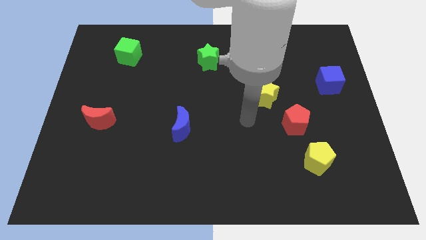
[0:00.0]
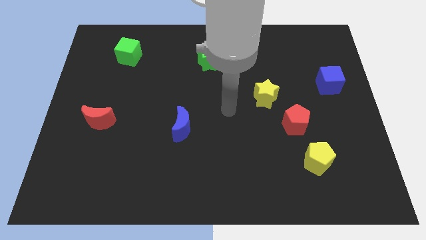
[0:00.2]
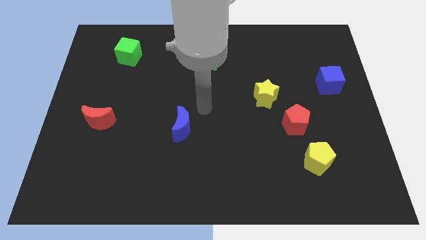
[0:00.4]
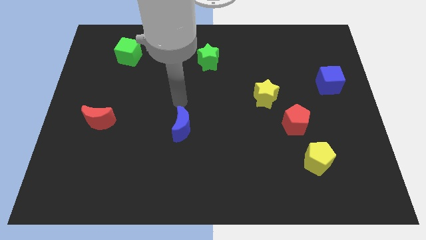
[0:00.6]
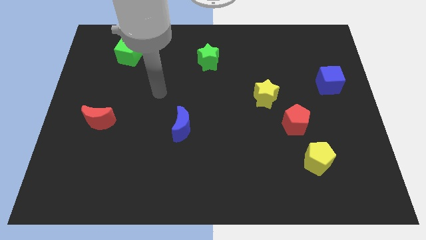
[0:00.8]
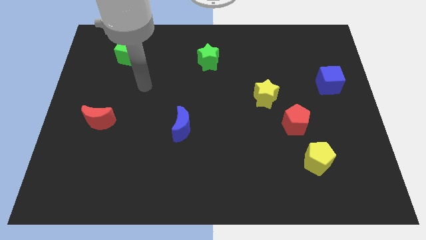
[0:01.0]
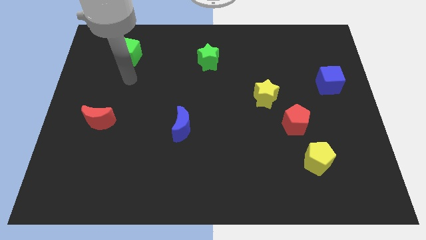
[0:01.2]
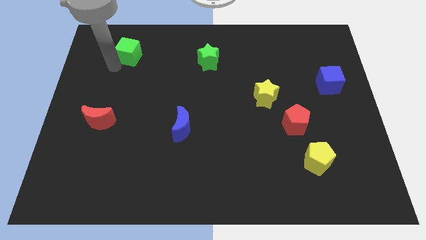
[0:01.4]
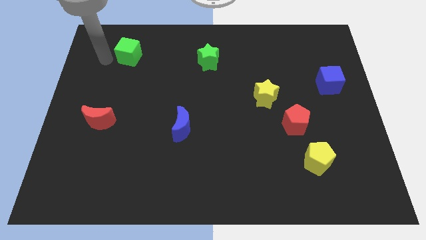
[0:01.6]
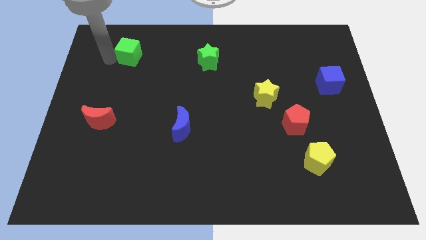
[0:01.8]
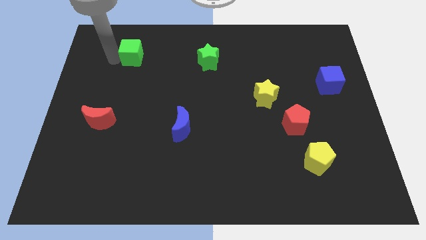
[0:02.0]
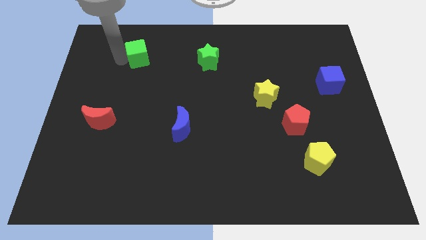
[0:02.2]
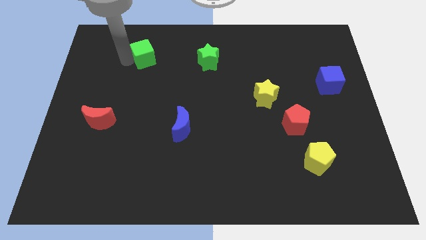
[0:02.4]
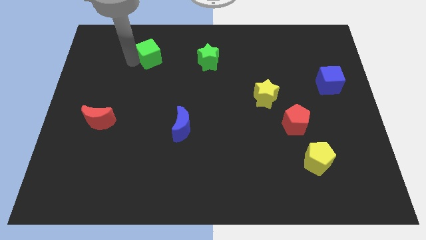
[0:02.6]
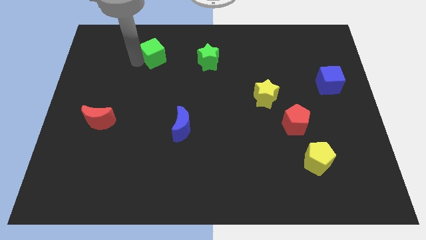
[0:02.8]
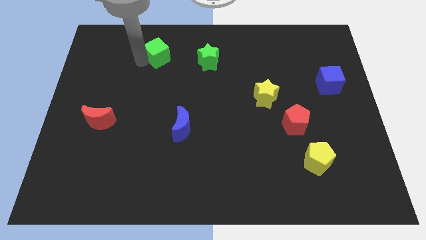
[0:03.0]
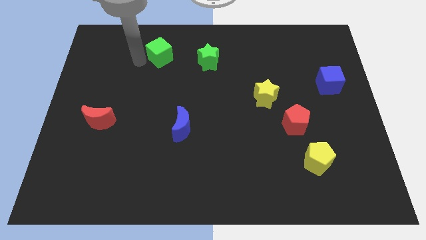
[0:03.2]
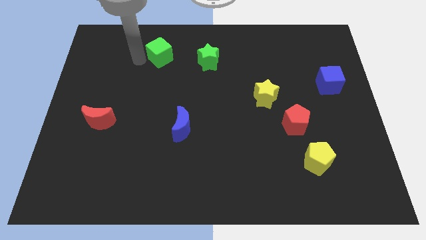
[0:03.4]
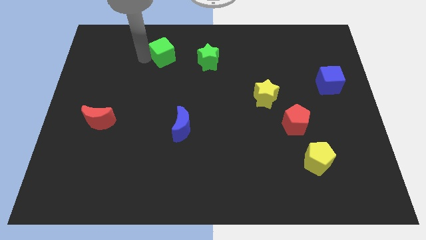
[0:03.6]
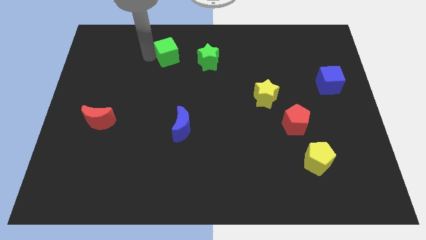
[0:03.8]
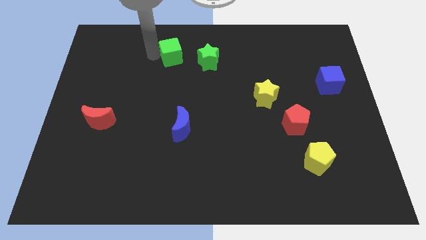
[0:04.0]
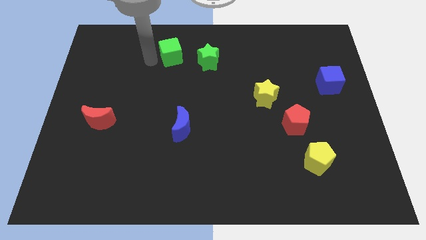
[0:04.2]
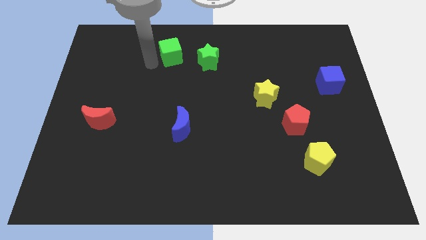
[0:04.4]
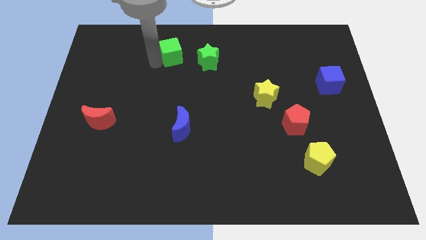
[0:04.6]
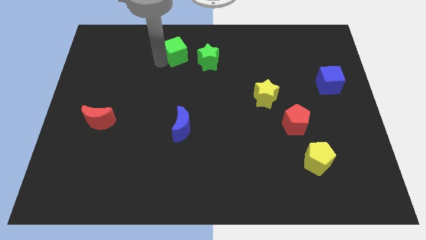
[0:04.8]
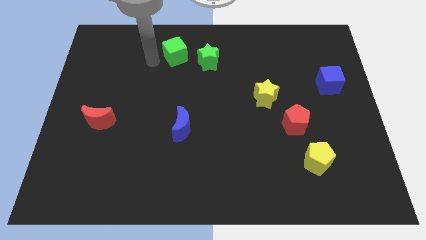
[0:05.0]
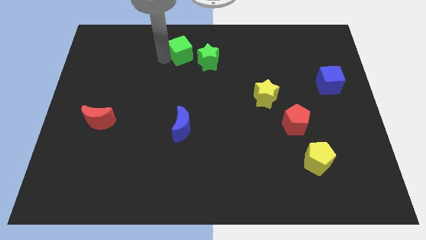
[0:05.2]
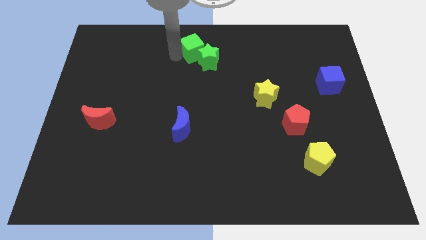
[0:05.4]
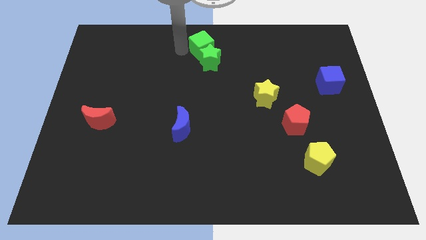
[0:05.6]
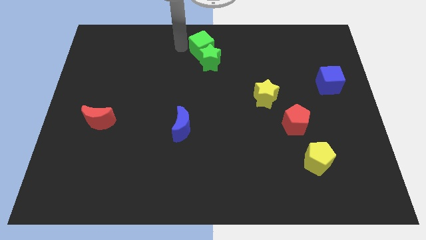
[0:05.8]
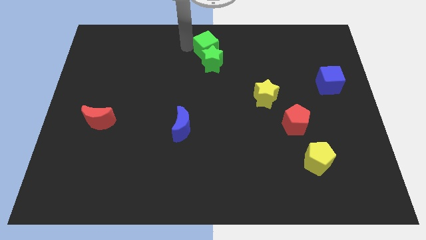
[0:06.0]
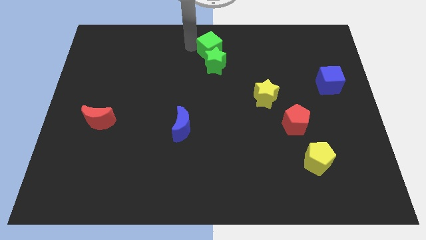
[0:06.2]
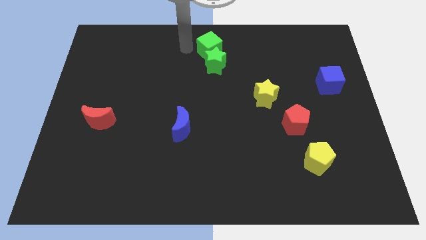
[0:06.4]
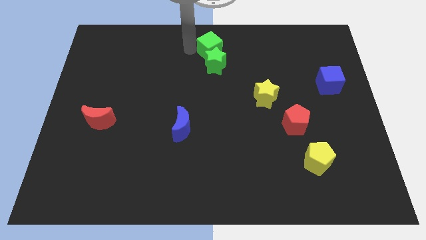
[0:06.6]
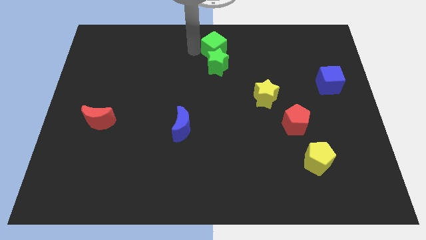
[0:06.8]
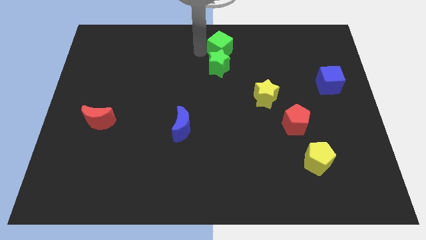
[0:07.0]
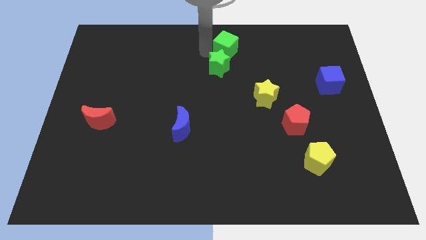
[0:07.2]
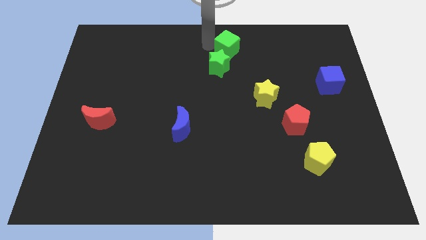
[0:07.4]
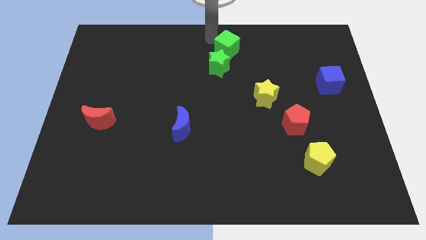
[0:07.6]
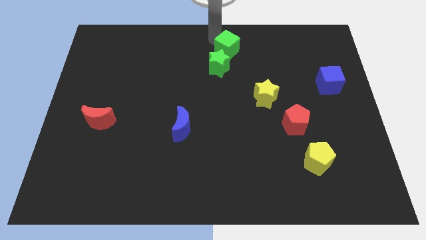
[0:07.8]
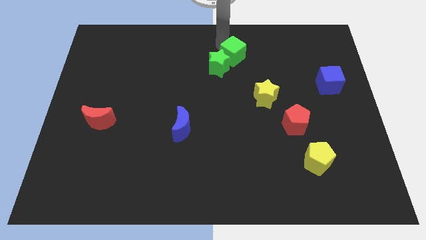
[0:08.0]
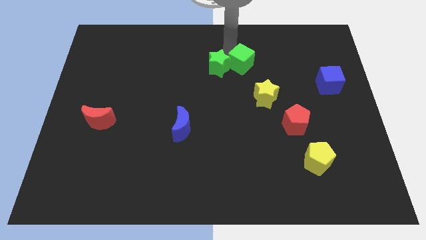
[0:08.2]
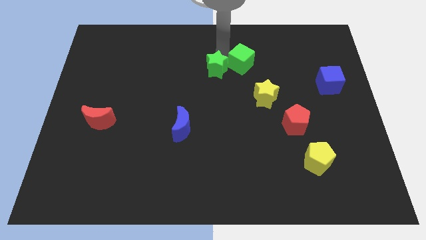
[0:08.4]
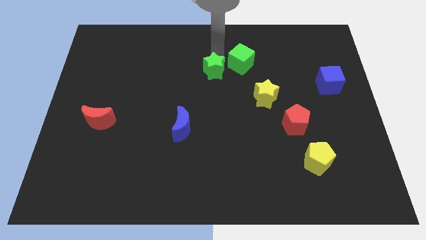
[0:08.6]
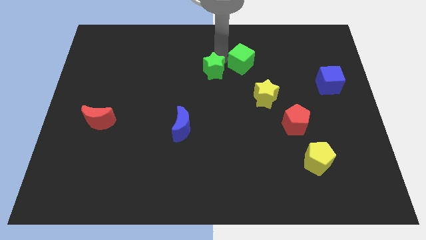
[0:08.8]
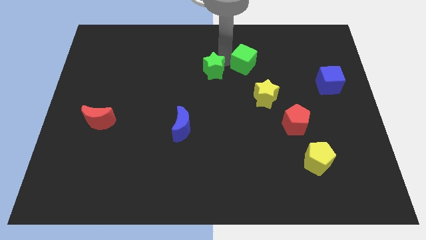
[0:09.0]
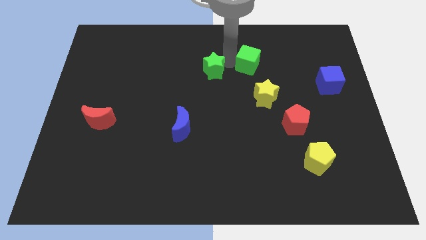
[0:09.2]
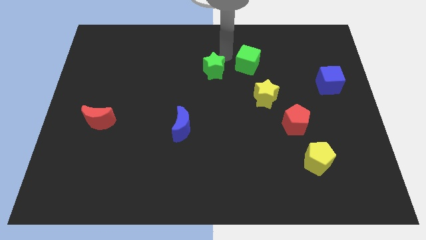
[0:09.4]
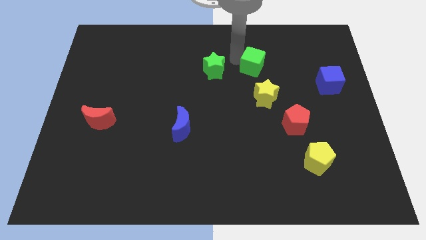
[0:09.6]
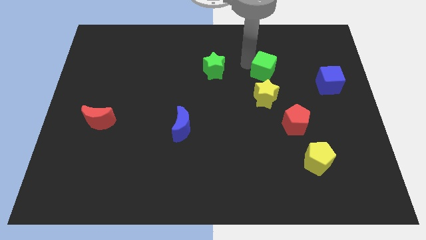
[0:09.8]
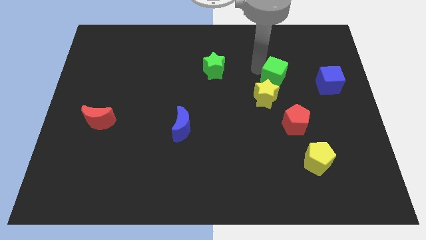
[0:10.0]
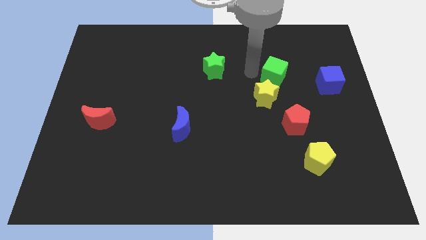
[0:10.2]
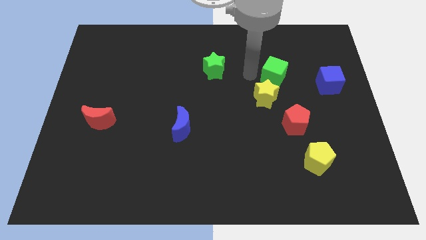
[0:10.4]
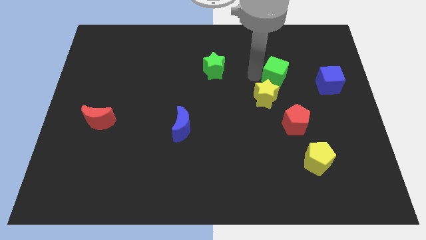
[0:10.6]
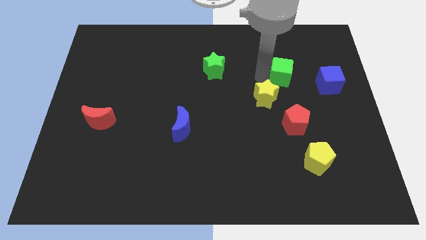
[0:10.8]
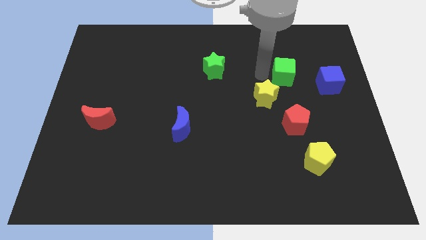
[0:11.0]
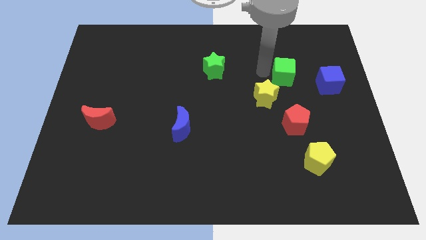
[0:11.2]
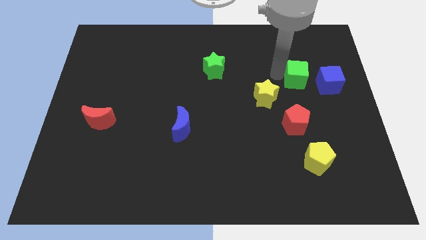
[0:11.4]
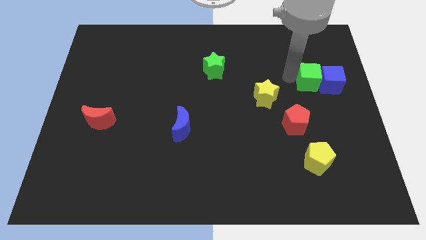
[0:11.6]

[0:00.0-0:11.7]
move the green cube next to the blue cube

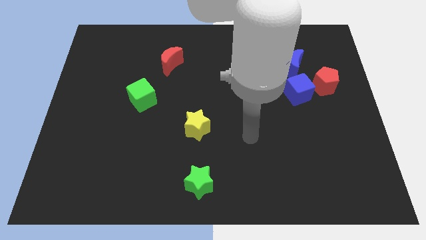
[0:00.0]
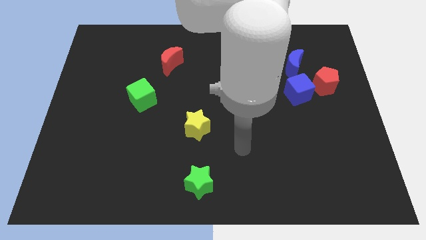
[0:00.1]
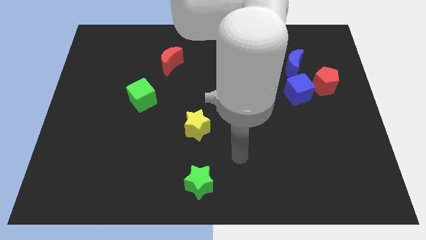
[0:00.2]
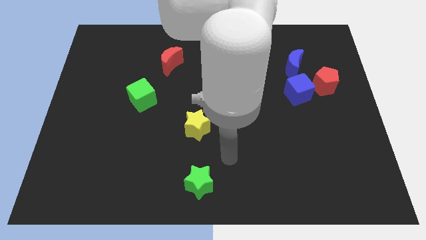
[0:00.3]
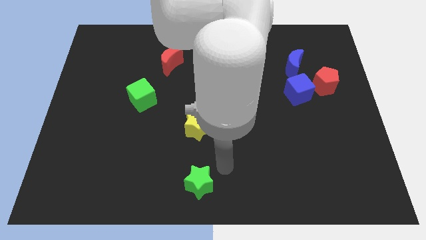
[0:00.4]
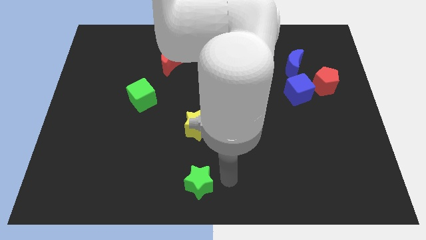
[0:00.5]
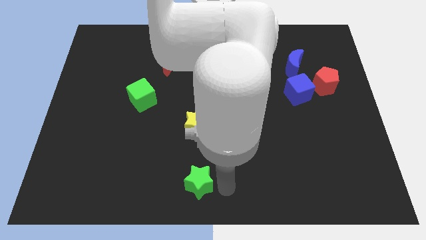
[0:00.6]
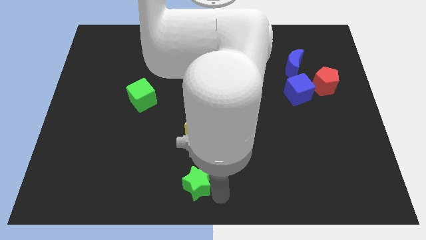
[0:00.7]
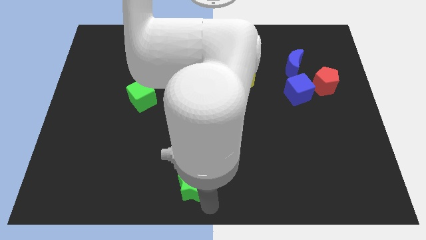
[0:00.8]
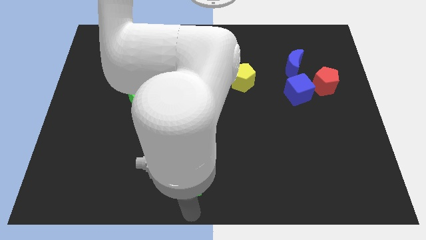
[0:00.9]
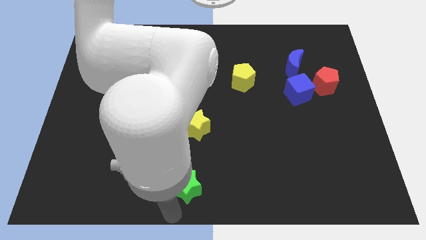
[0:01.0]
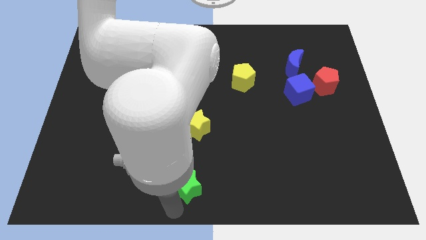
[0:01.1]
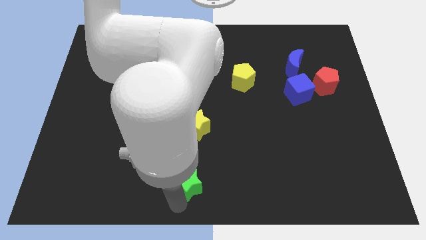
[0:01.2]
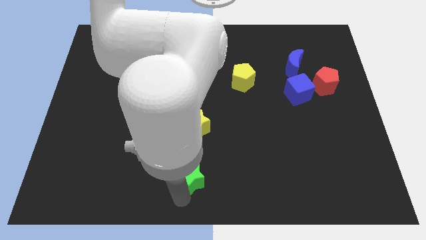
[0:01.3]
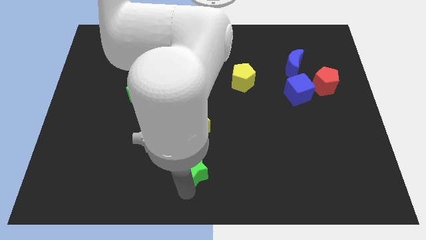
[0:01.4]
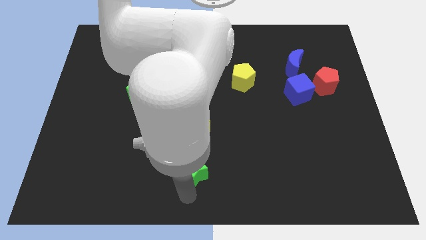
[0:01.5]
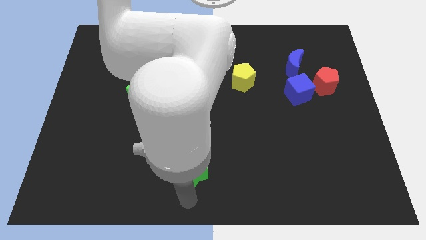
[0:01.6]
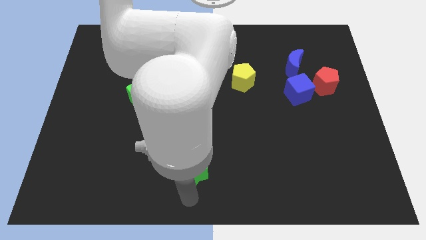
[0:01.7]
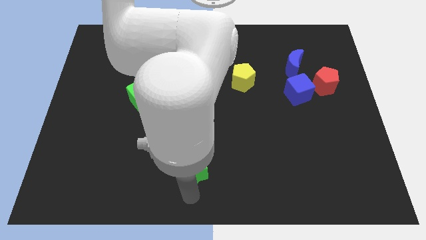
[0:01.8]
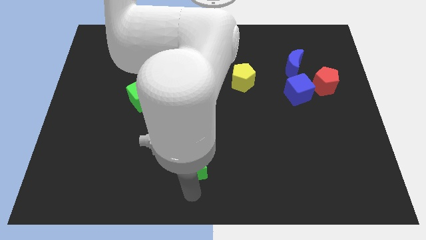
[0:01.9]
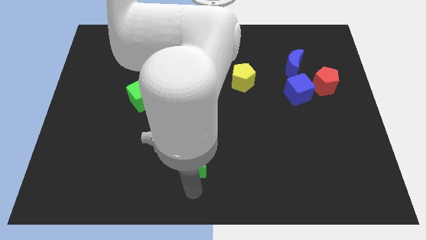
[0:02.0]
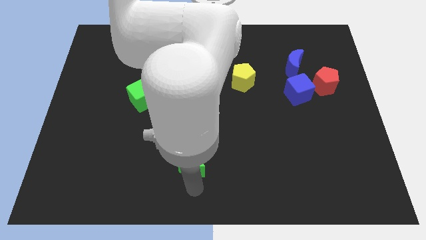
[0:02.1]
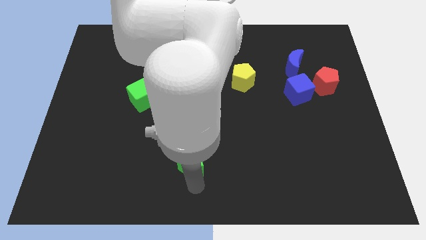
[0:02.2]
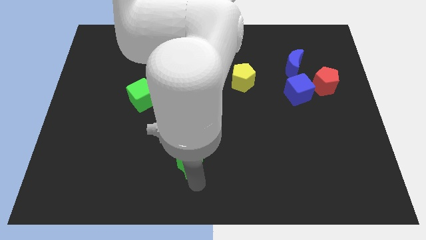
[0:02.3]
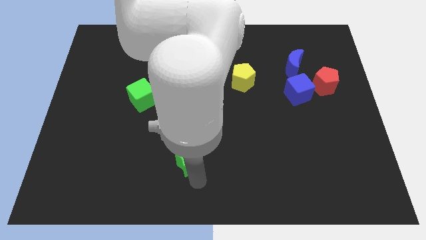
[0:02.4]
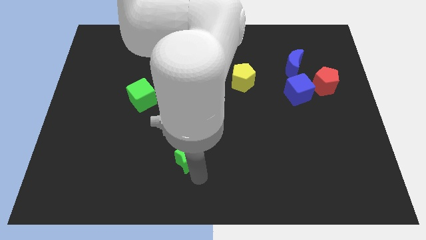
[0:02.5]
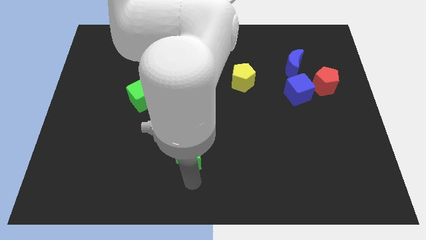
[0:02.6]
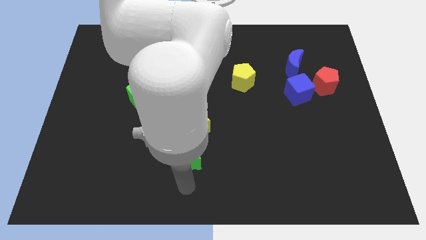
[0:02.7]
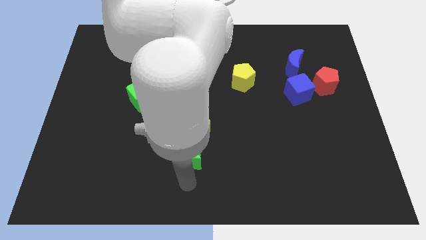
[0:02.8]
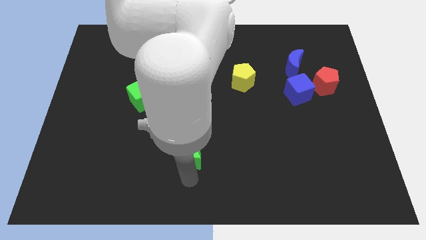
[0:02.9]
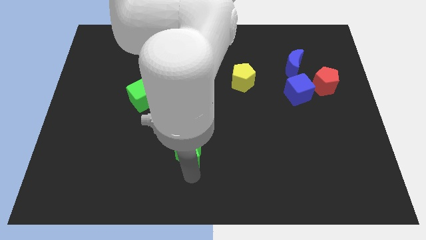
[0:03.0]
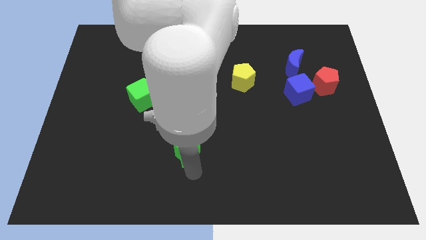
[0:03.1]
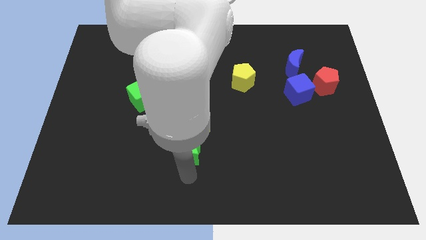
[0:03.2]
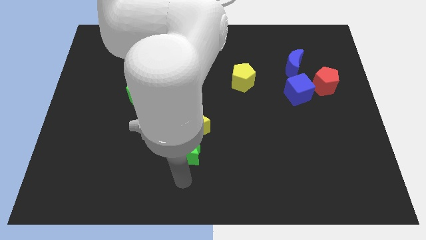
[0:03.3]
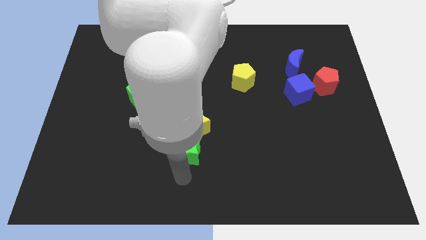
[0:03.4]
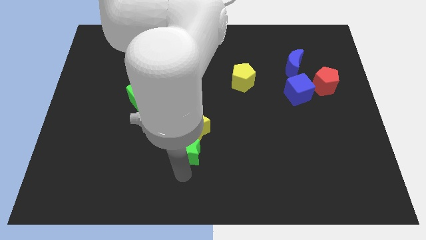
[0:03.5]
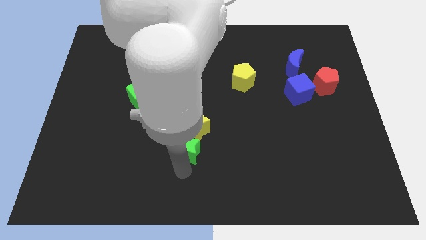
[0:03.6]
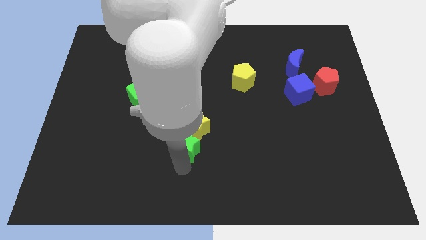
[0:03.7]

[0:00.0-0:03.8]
move the green star to the yellow star
